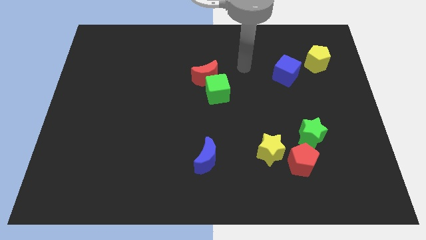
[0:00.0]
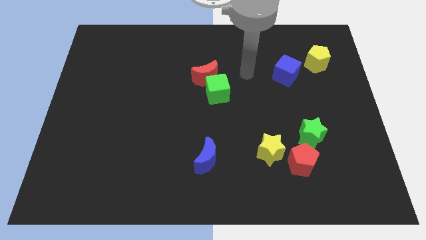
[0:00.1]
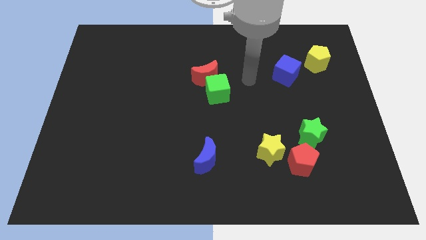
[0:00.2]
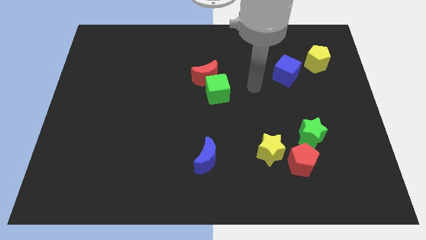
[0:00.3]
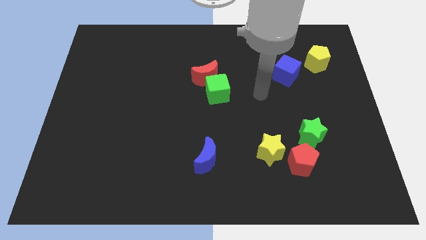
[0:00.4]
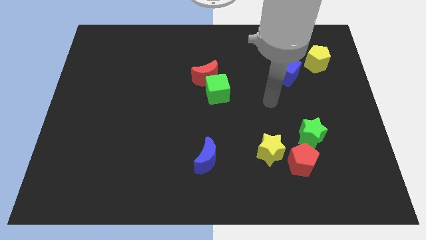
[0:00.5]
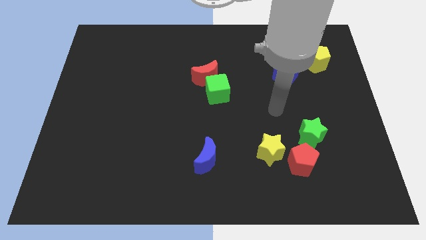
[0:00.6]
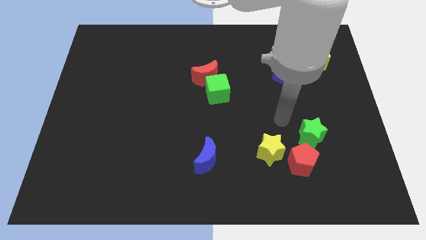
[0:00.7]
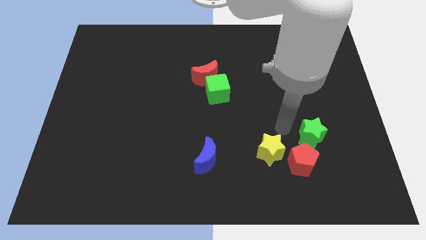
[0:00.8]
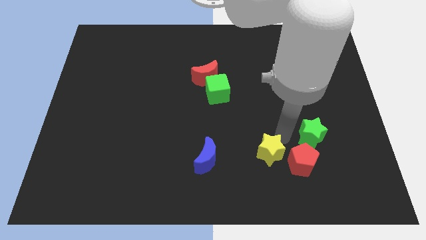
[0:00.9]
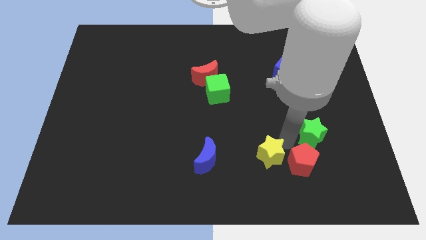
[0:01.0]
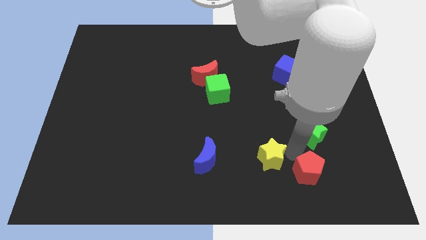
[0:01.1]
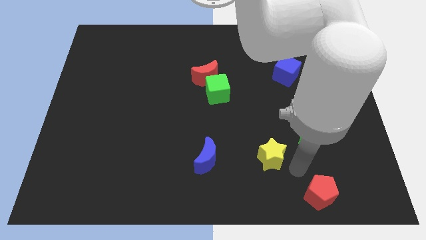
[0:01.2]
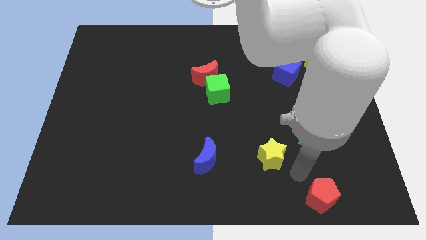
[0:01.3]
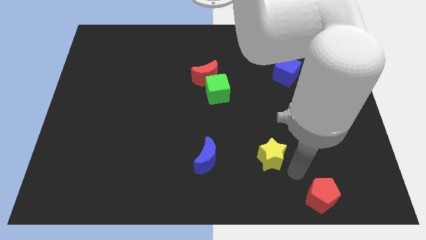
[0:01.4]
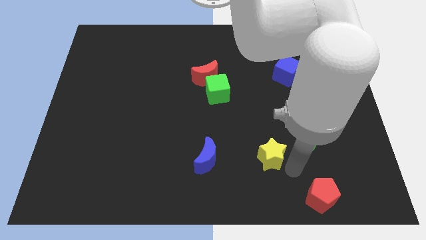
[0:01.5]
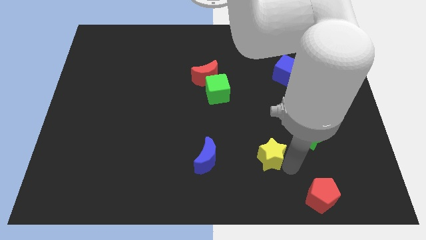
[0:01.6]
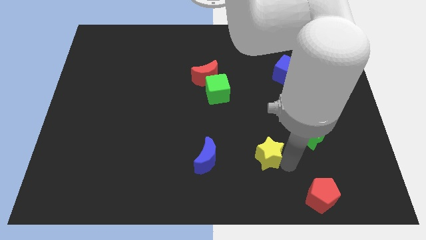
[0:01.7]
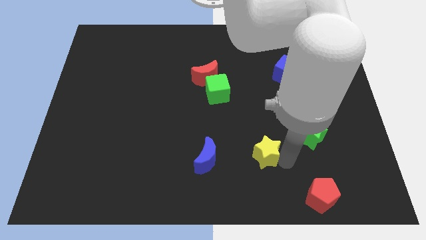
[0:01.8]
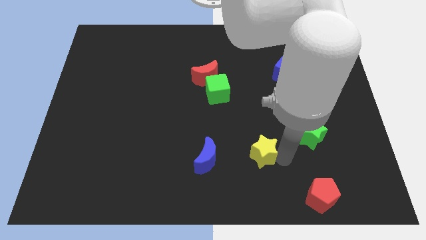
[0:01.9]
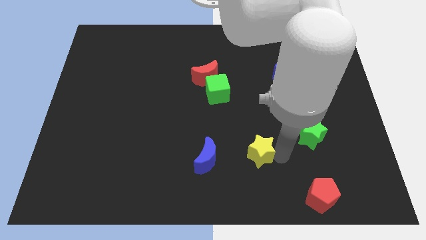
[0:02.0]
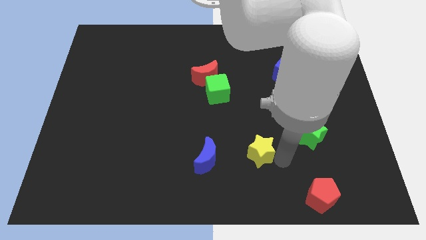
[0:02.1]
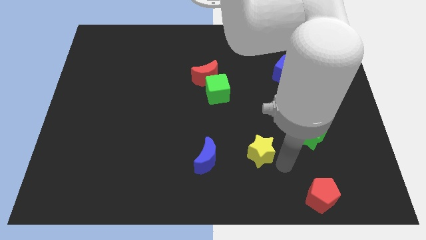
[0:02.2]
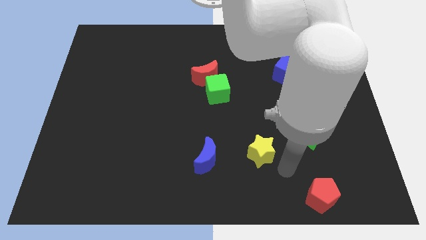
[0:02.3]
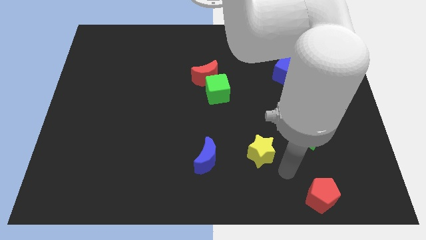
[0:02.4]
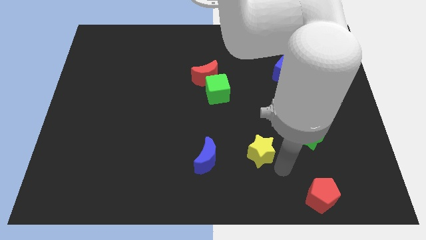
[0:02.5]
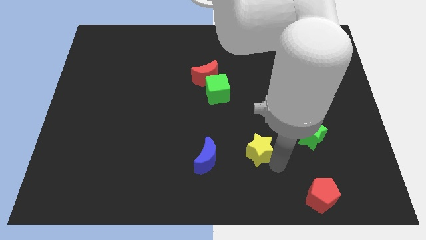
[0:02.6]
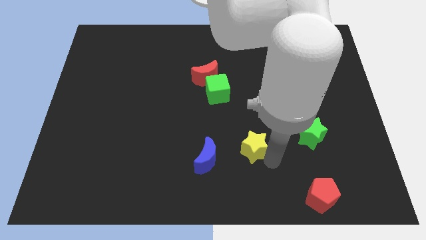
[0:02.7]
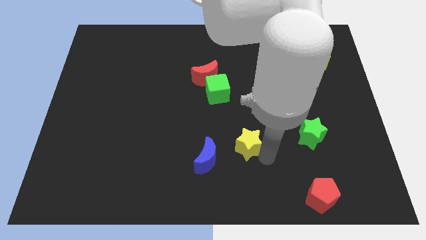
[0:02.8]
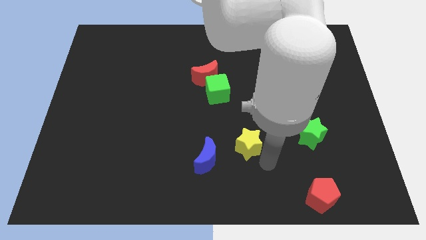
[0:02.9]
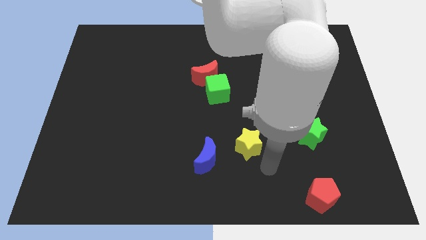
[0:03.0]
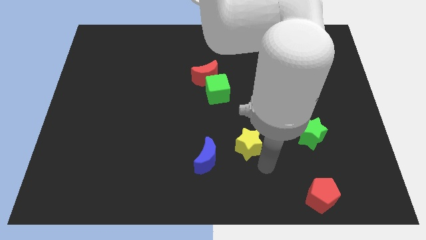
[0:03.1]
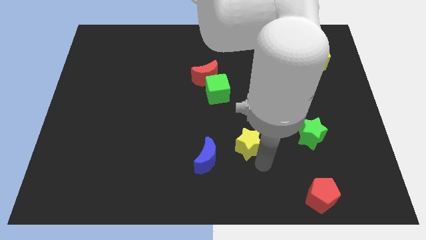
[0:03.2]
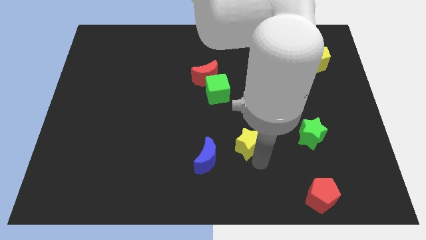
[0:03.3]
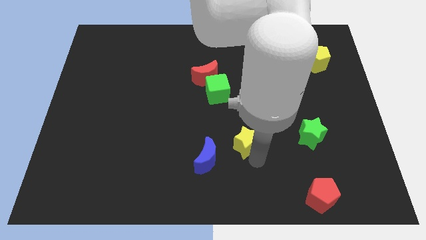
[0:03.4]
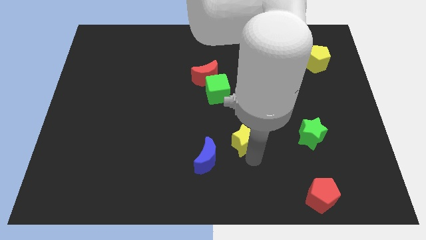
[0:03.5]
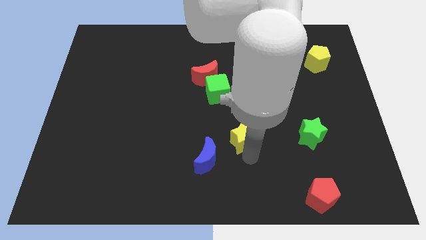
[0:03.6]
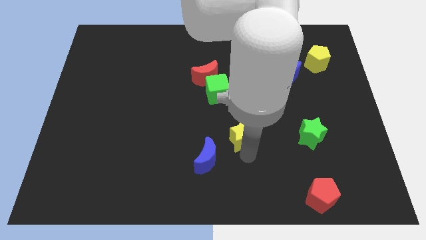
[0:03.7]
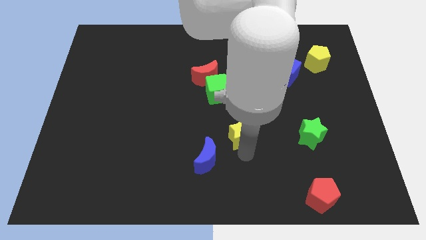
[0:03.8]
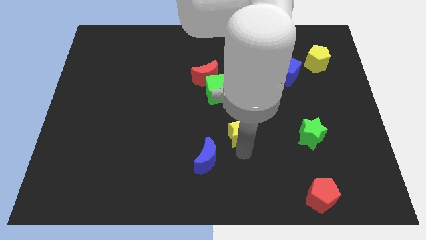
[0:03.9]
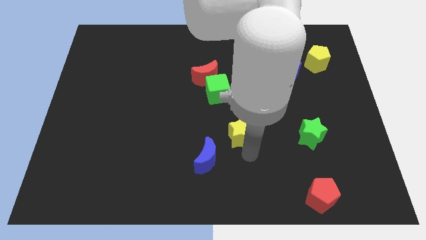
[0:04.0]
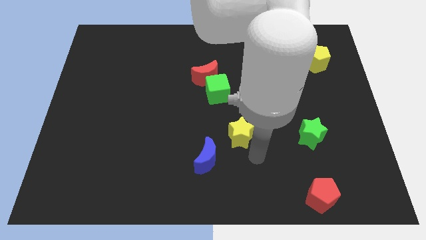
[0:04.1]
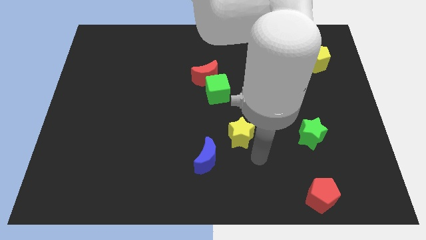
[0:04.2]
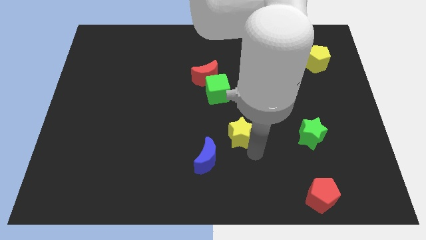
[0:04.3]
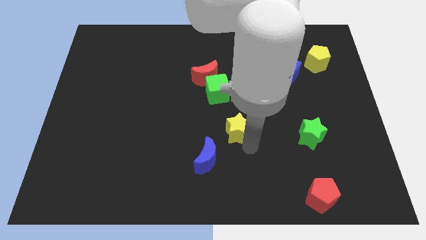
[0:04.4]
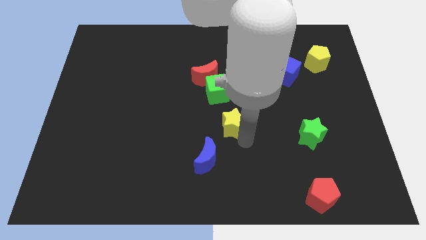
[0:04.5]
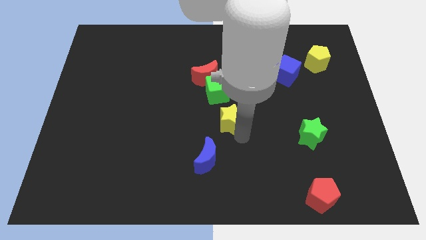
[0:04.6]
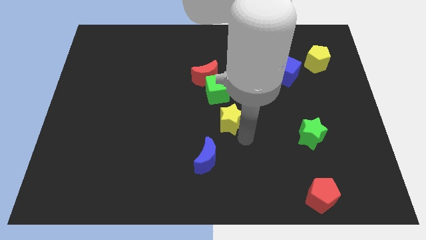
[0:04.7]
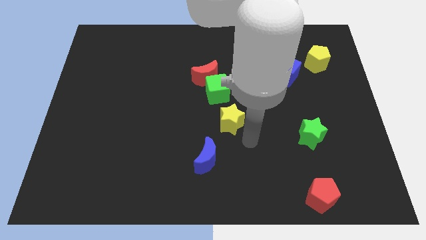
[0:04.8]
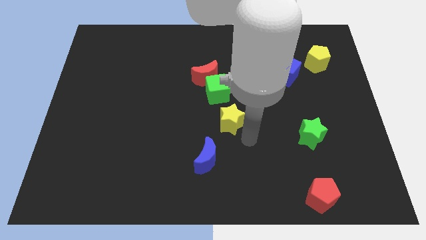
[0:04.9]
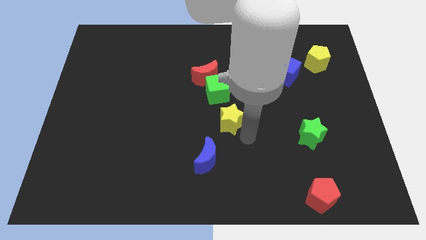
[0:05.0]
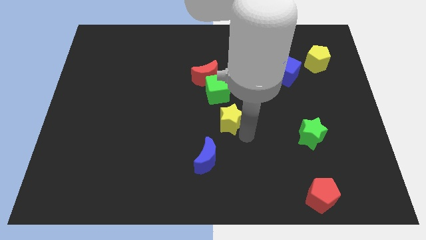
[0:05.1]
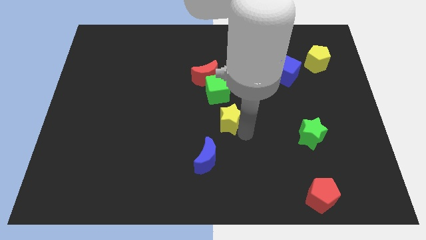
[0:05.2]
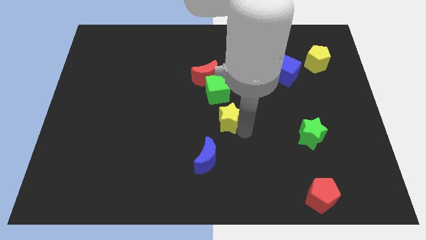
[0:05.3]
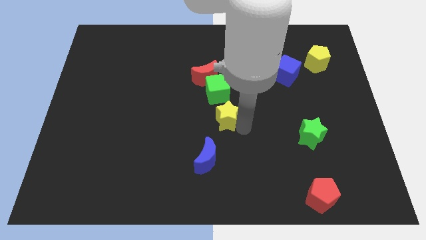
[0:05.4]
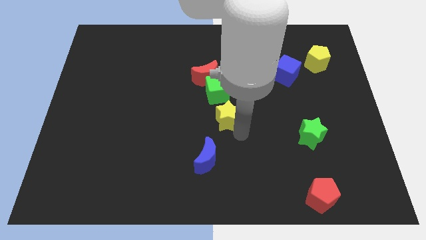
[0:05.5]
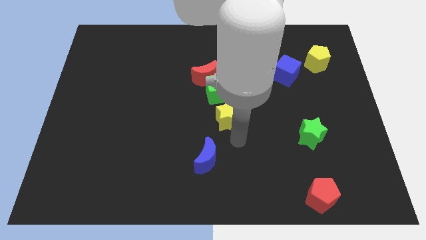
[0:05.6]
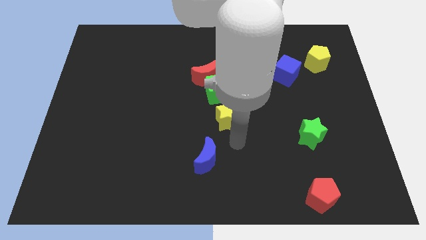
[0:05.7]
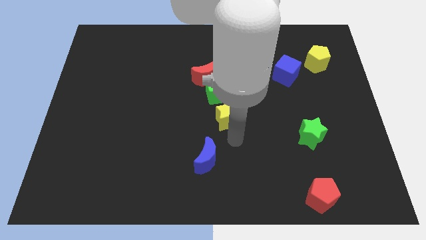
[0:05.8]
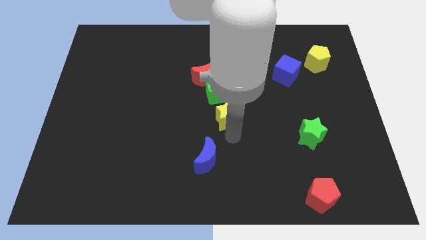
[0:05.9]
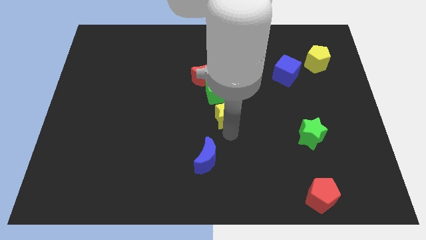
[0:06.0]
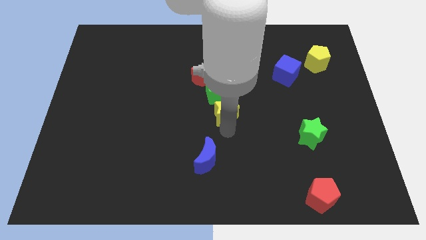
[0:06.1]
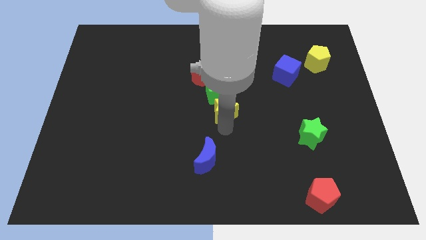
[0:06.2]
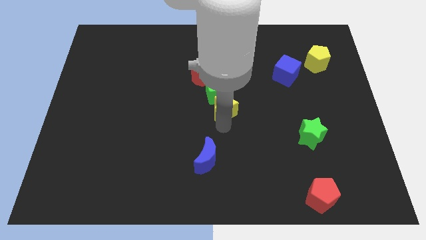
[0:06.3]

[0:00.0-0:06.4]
put the yellow star close to the green cube

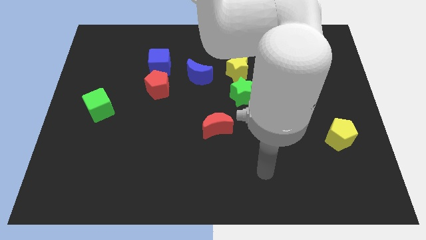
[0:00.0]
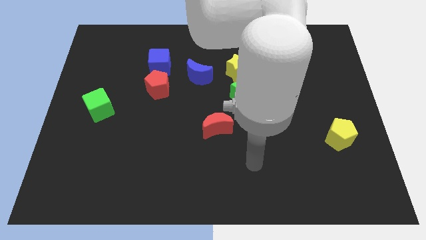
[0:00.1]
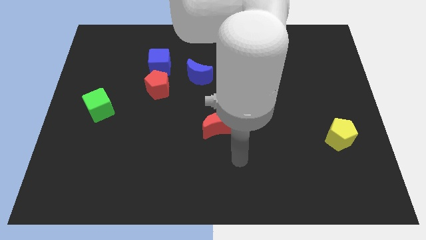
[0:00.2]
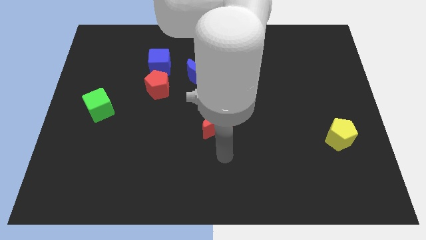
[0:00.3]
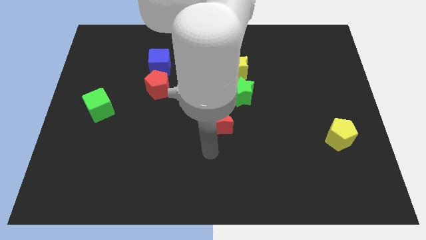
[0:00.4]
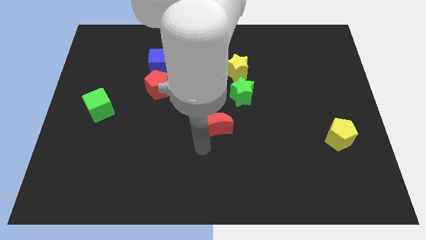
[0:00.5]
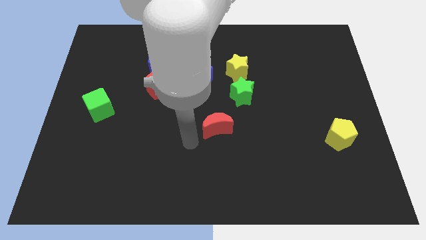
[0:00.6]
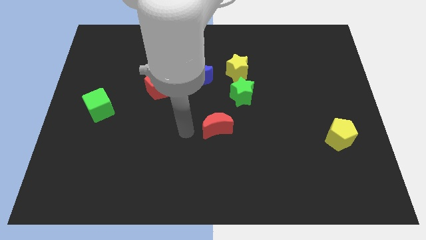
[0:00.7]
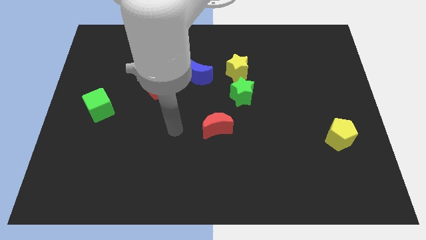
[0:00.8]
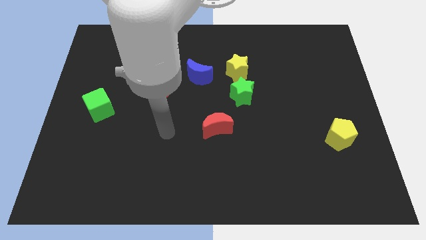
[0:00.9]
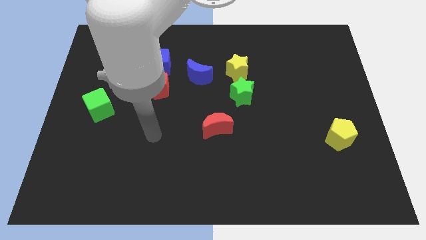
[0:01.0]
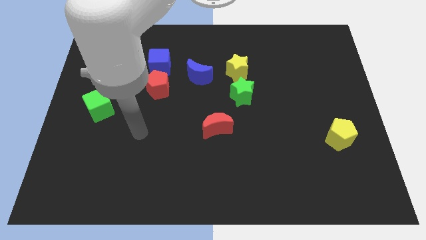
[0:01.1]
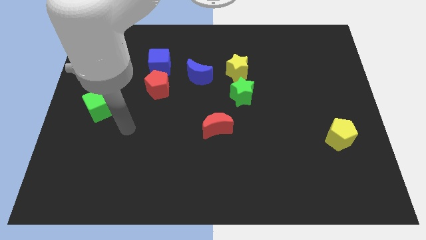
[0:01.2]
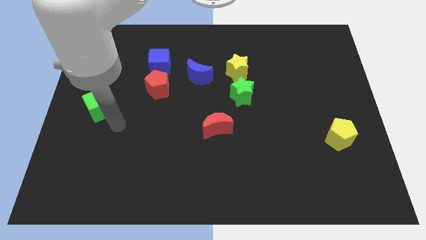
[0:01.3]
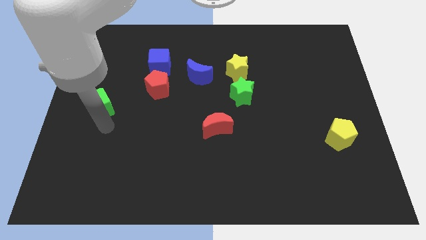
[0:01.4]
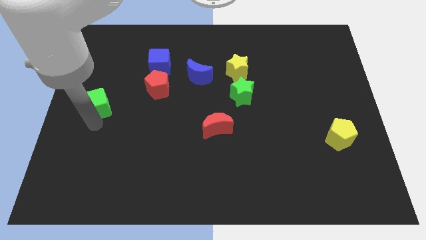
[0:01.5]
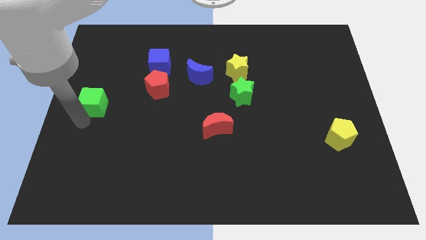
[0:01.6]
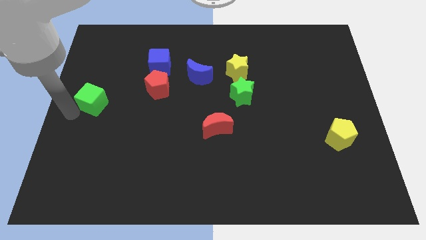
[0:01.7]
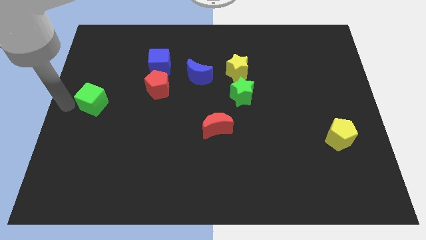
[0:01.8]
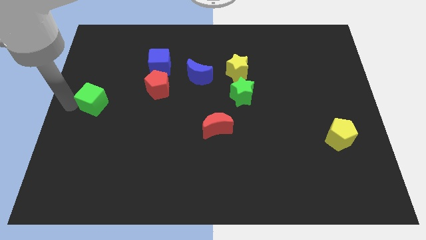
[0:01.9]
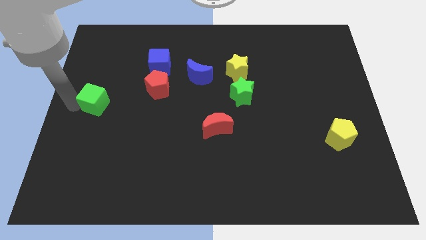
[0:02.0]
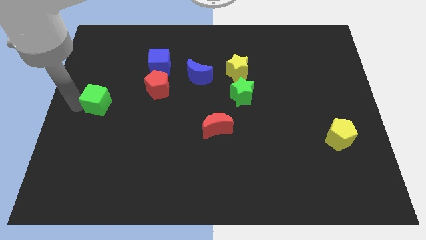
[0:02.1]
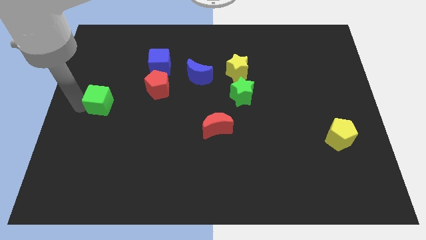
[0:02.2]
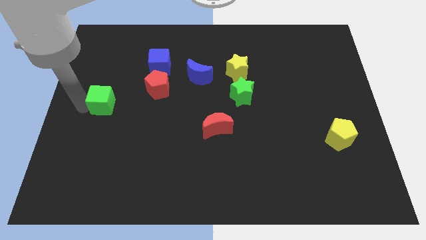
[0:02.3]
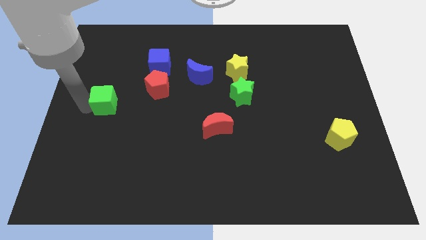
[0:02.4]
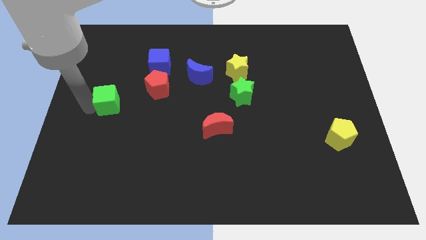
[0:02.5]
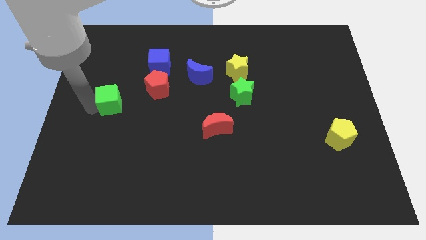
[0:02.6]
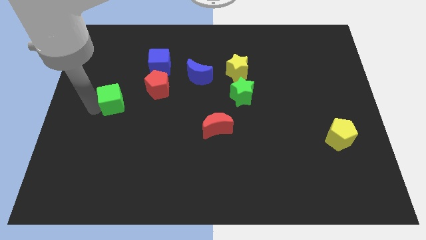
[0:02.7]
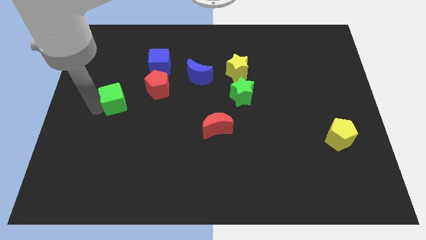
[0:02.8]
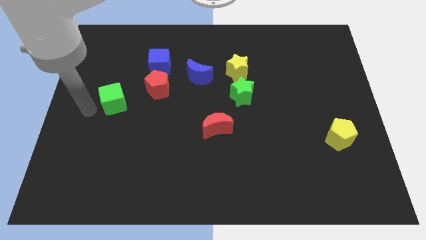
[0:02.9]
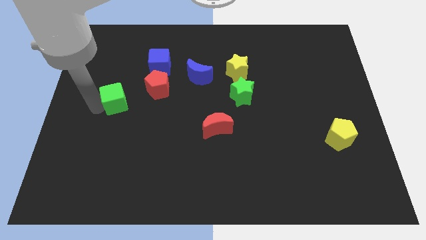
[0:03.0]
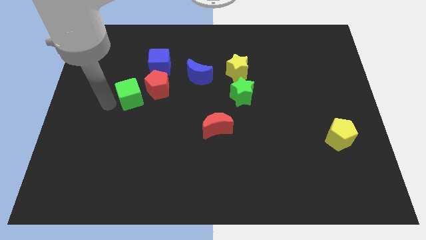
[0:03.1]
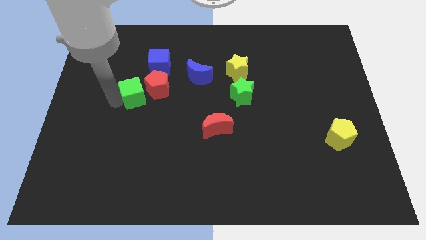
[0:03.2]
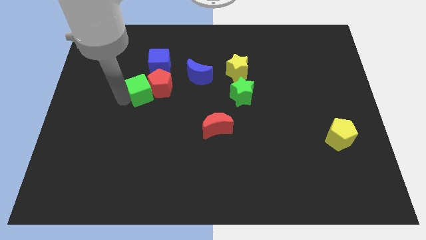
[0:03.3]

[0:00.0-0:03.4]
put the green cube next to the red pentagon
